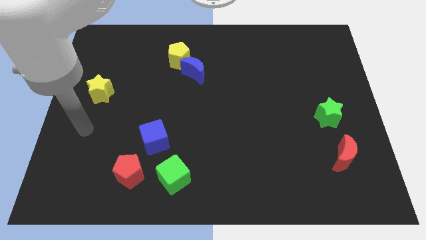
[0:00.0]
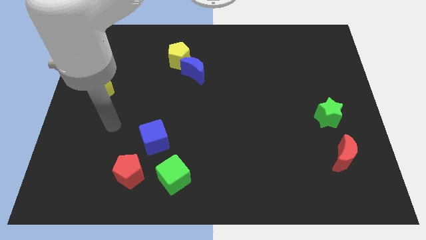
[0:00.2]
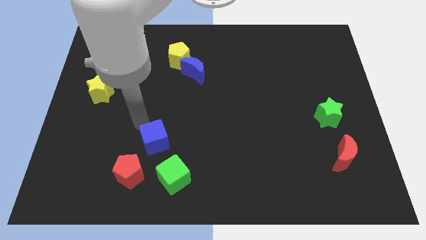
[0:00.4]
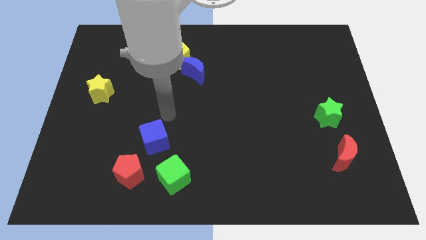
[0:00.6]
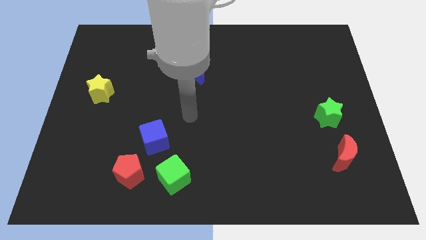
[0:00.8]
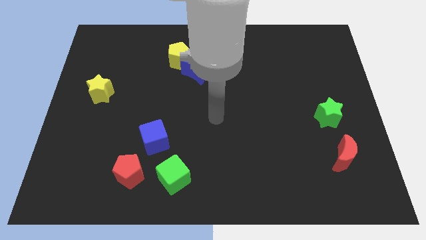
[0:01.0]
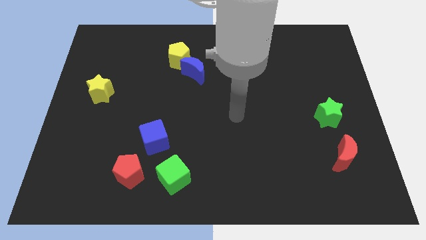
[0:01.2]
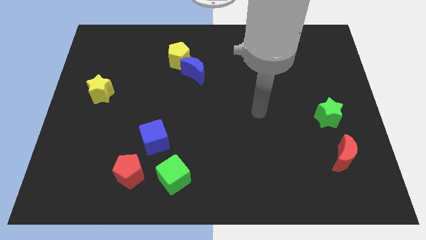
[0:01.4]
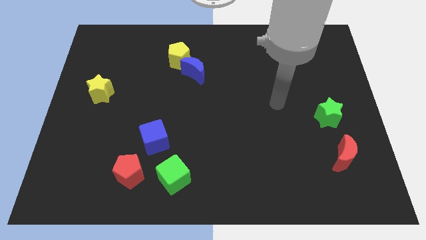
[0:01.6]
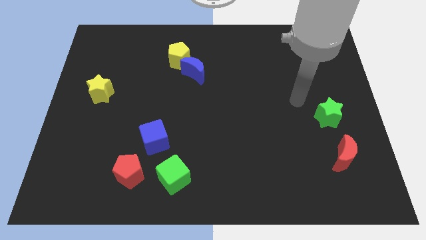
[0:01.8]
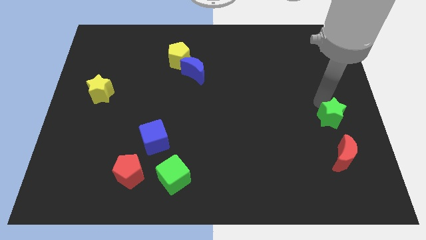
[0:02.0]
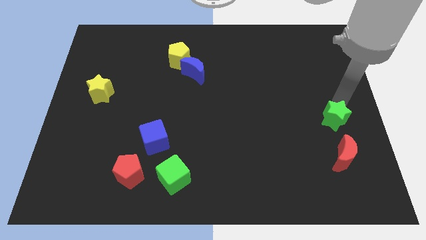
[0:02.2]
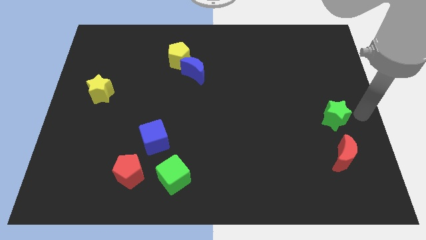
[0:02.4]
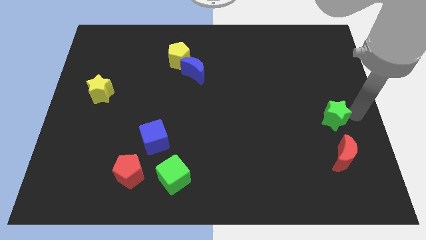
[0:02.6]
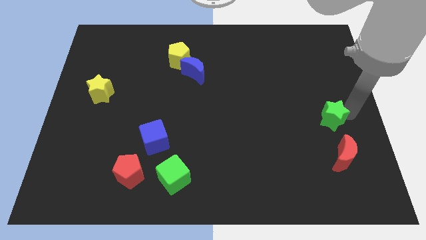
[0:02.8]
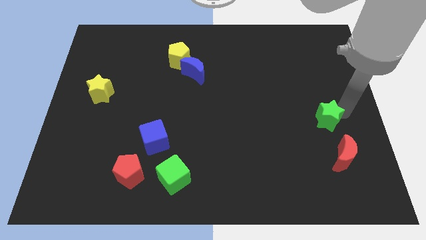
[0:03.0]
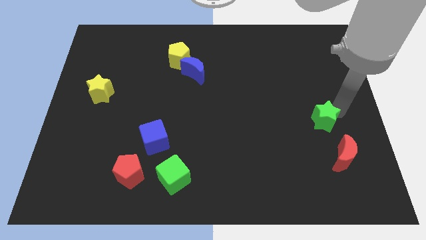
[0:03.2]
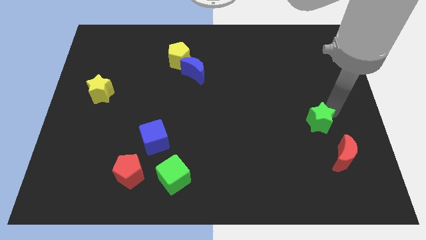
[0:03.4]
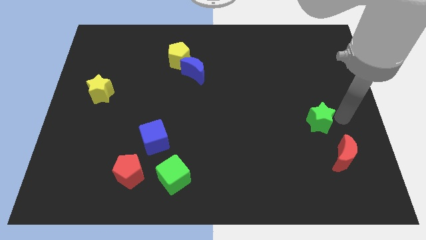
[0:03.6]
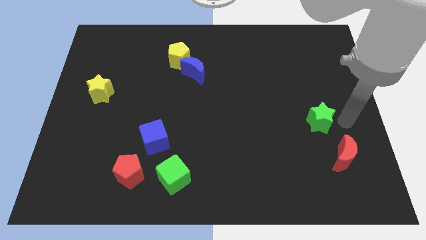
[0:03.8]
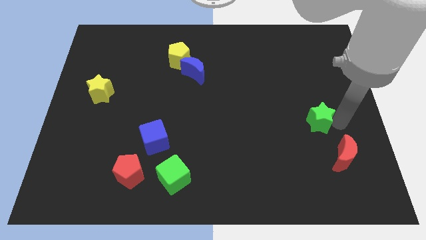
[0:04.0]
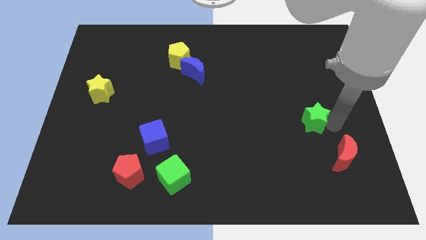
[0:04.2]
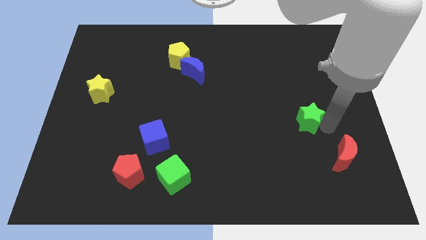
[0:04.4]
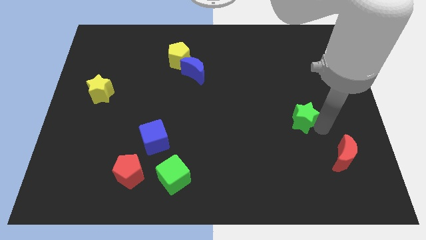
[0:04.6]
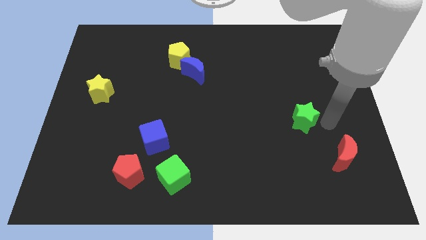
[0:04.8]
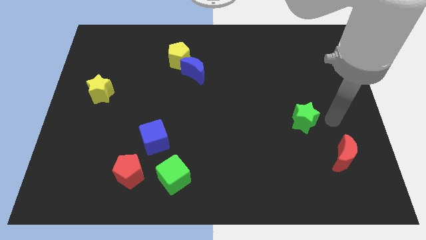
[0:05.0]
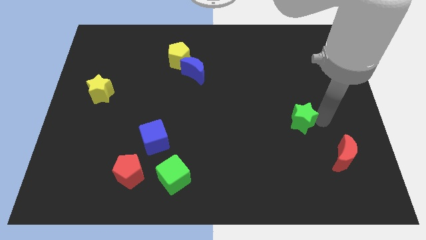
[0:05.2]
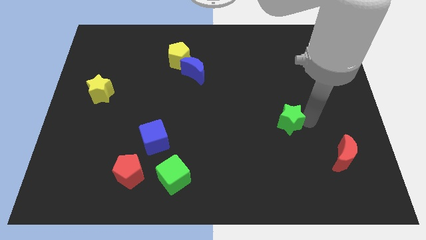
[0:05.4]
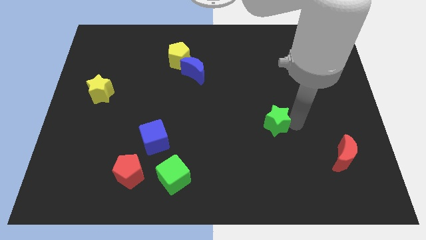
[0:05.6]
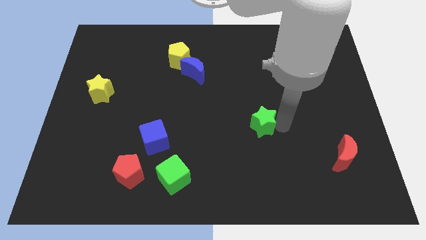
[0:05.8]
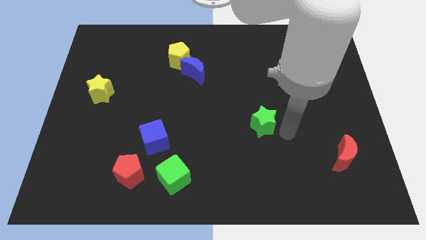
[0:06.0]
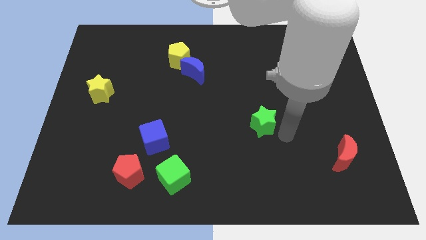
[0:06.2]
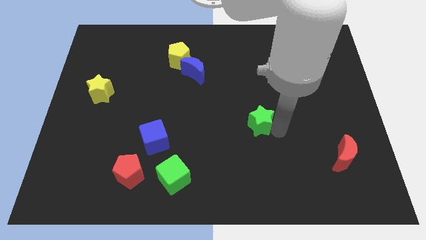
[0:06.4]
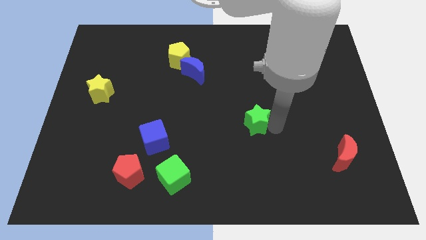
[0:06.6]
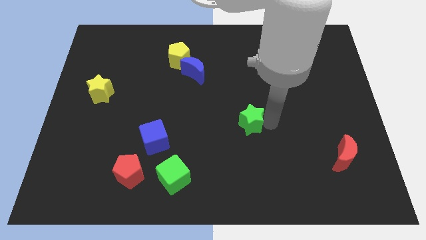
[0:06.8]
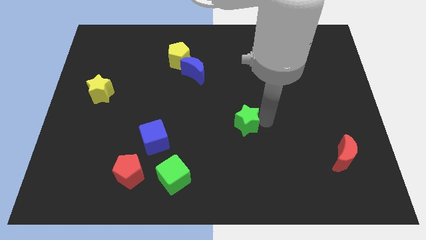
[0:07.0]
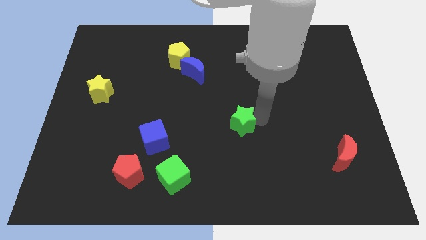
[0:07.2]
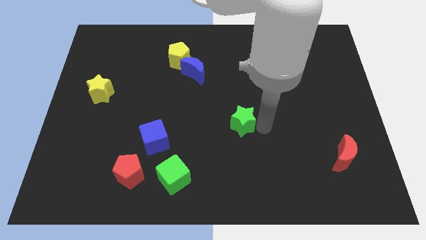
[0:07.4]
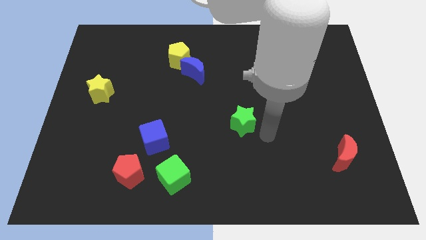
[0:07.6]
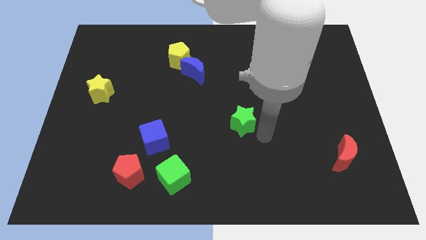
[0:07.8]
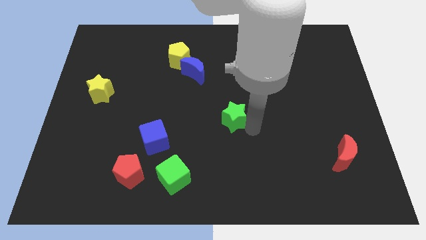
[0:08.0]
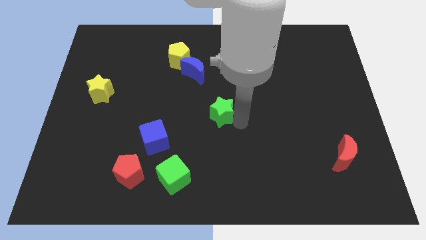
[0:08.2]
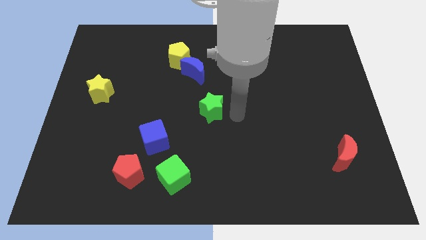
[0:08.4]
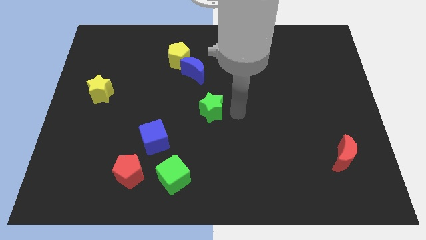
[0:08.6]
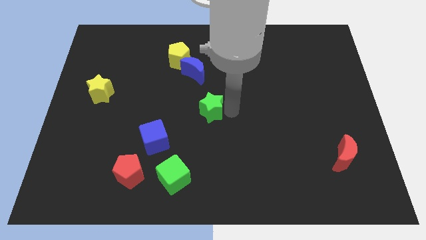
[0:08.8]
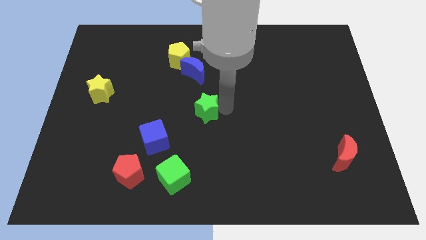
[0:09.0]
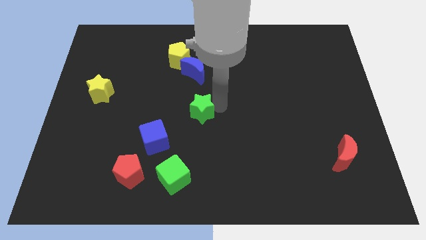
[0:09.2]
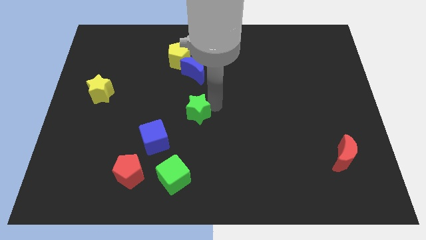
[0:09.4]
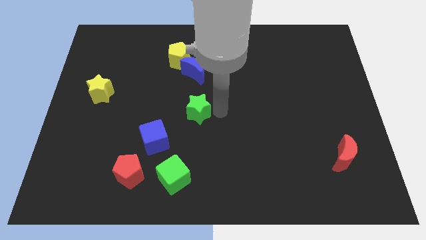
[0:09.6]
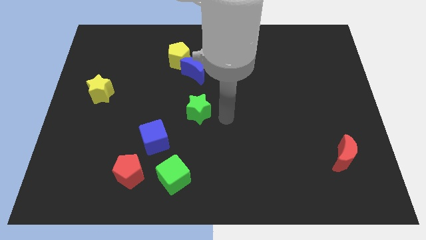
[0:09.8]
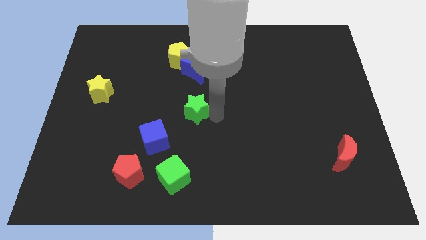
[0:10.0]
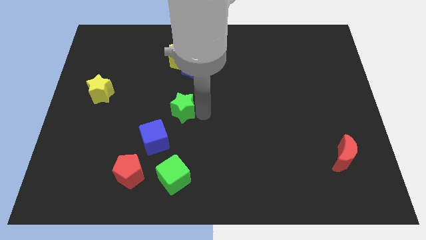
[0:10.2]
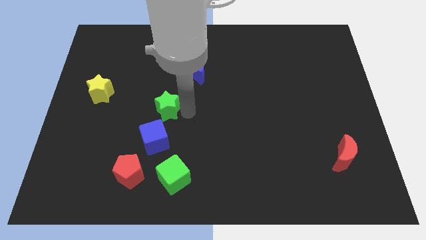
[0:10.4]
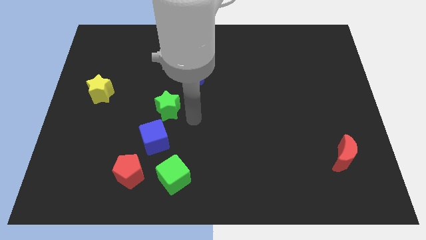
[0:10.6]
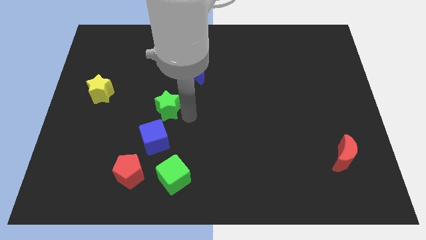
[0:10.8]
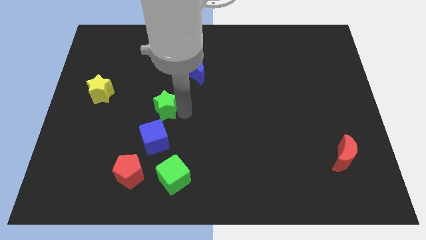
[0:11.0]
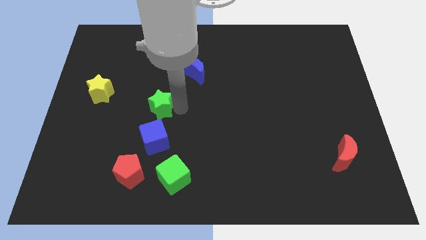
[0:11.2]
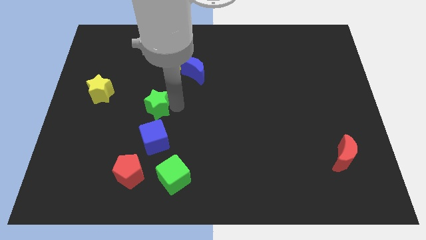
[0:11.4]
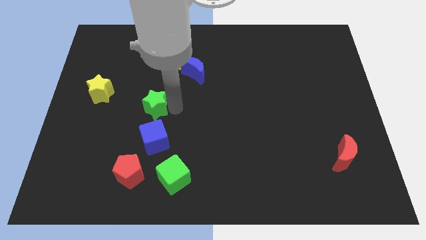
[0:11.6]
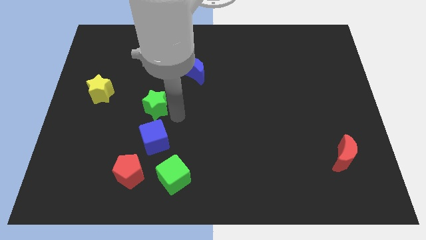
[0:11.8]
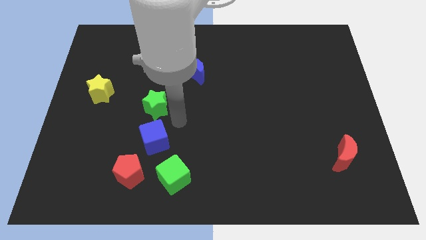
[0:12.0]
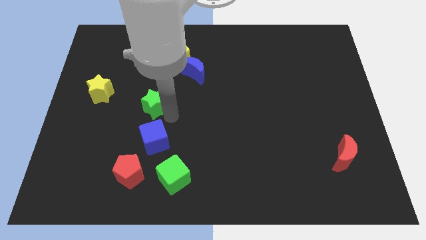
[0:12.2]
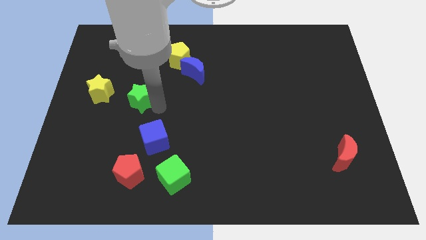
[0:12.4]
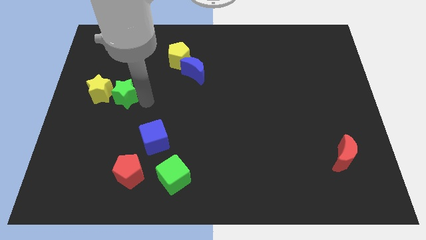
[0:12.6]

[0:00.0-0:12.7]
put the green star towards the yellow star

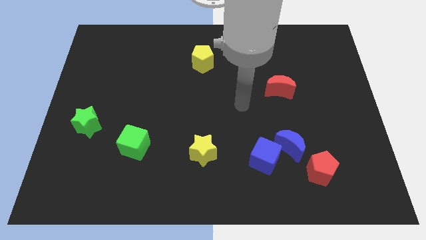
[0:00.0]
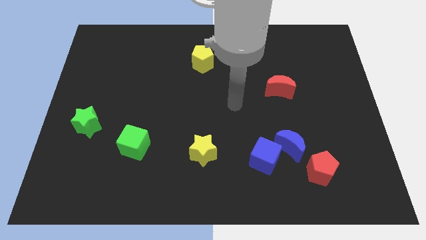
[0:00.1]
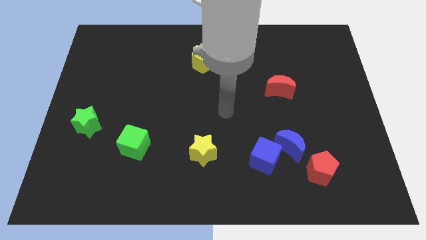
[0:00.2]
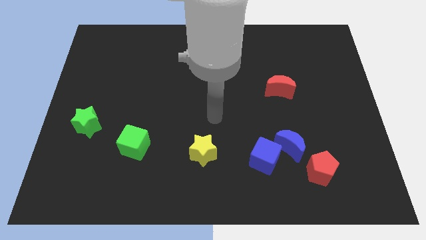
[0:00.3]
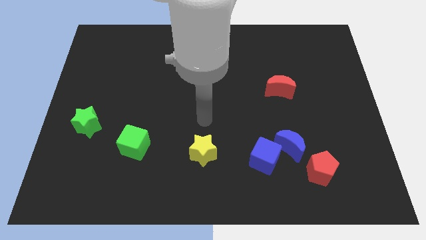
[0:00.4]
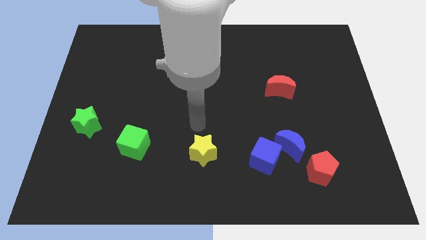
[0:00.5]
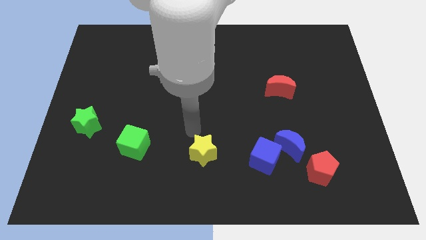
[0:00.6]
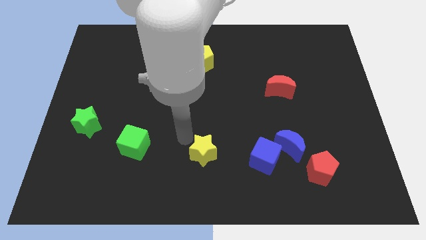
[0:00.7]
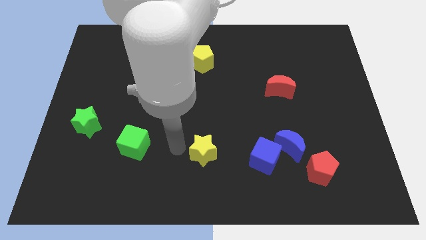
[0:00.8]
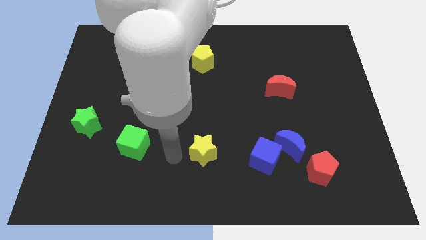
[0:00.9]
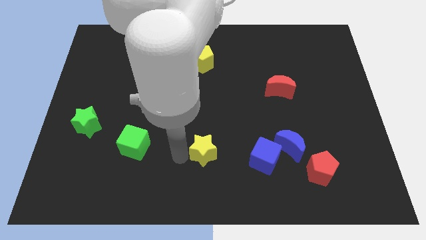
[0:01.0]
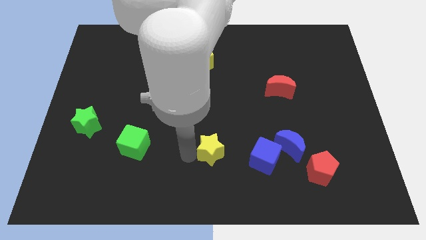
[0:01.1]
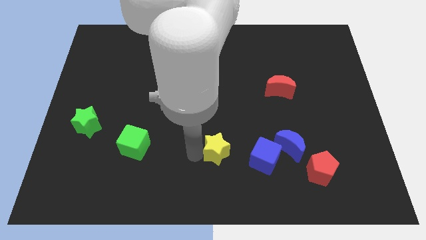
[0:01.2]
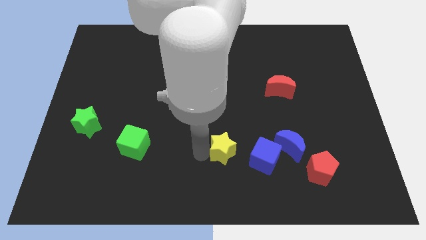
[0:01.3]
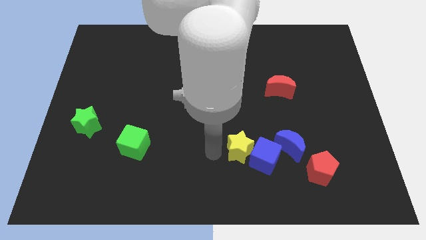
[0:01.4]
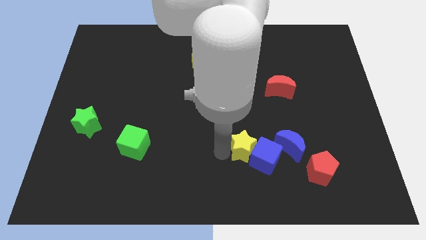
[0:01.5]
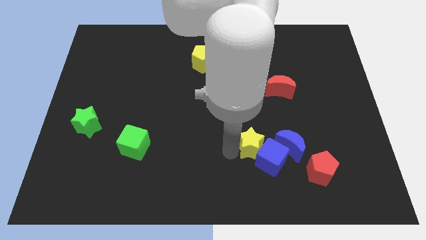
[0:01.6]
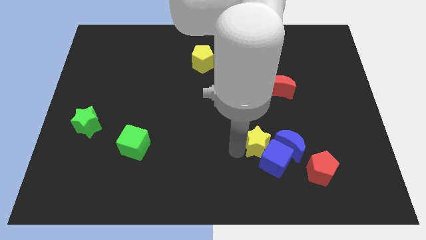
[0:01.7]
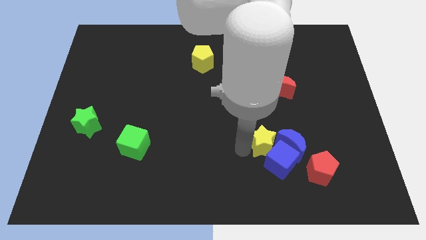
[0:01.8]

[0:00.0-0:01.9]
move the yellow star close to the blue moon
